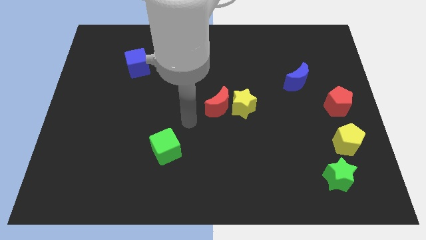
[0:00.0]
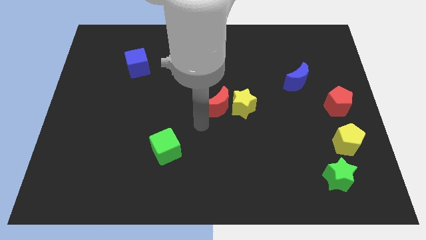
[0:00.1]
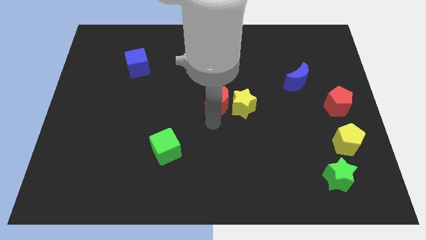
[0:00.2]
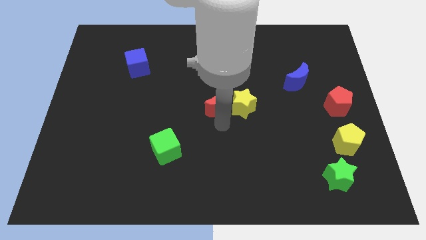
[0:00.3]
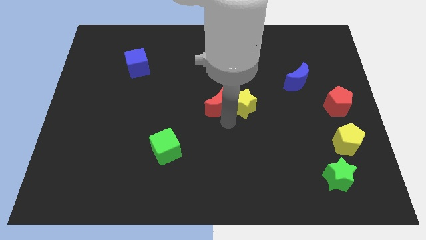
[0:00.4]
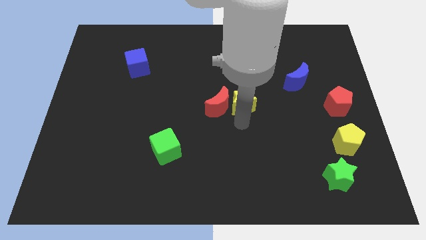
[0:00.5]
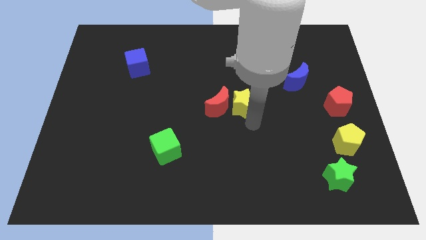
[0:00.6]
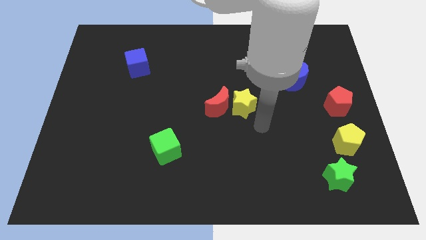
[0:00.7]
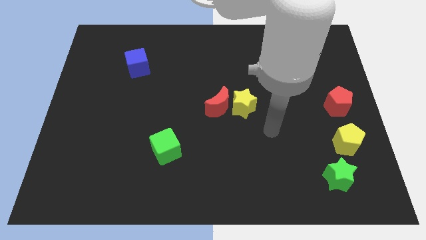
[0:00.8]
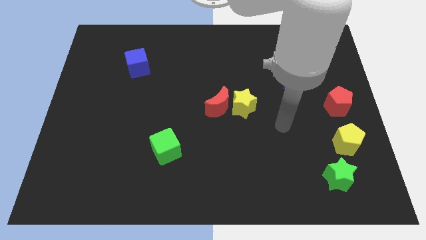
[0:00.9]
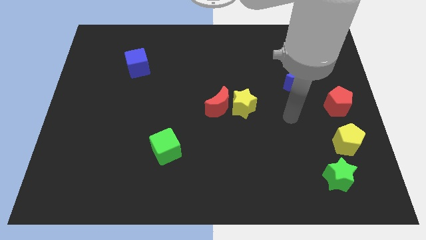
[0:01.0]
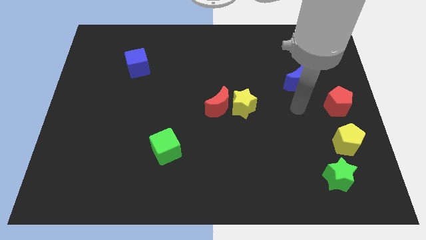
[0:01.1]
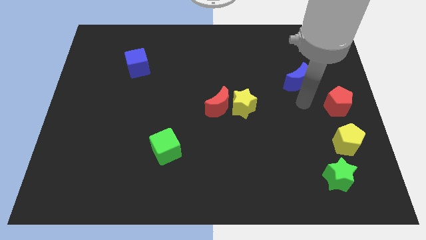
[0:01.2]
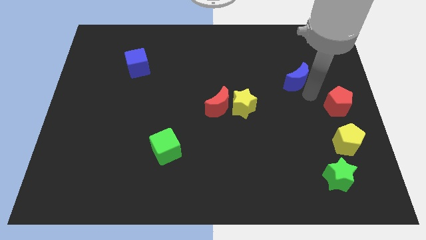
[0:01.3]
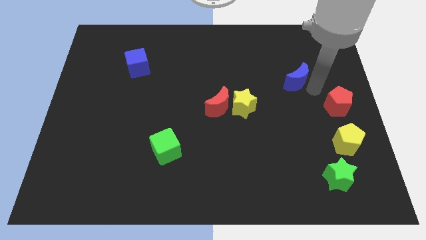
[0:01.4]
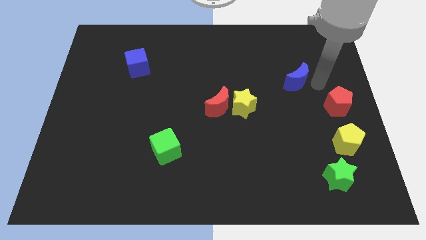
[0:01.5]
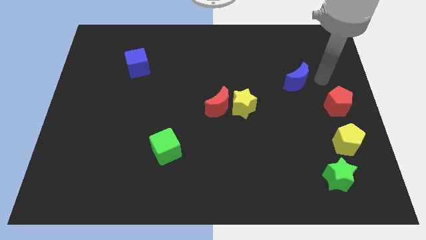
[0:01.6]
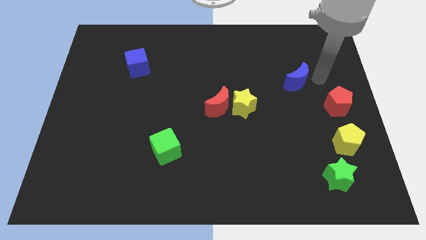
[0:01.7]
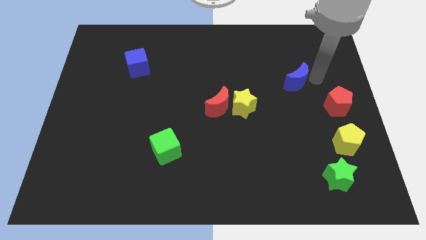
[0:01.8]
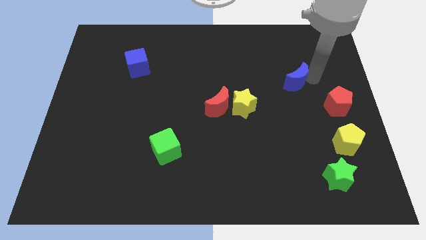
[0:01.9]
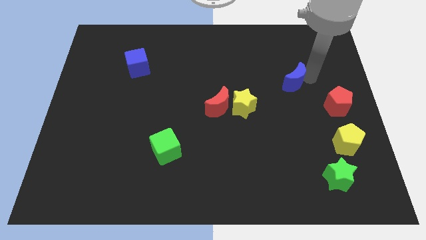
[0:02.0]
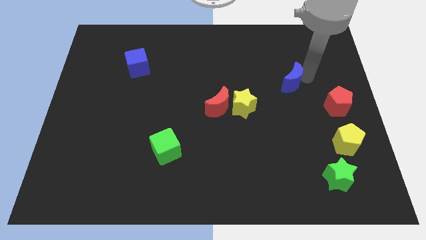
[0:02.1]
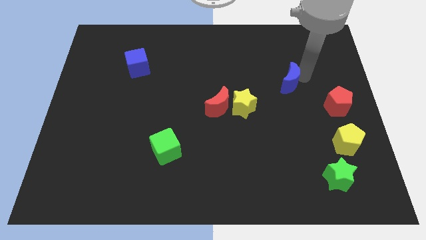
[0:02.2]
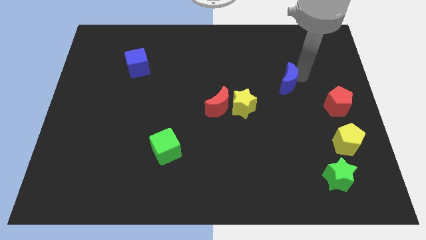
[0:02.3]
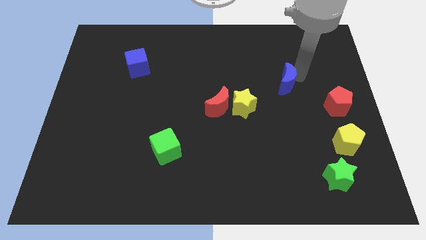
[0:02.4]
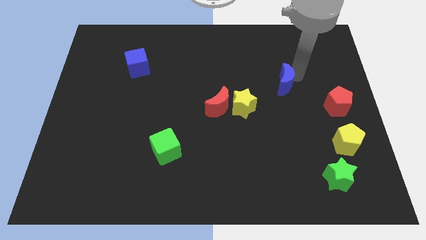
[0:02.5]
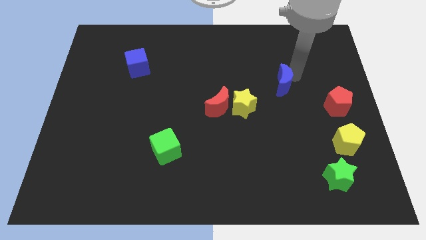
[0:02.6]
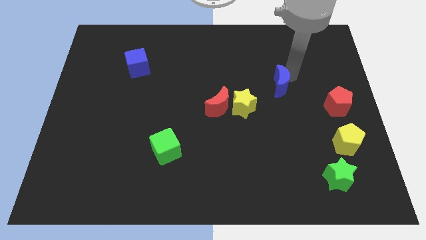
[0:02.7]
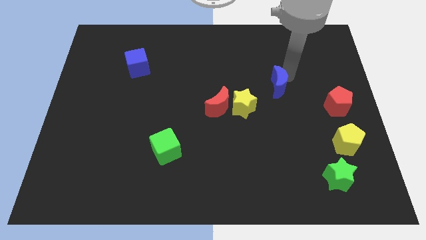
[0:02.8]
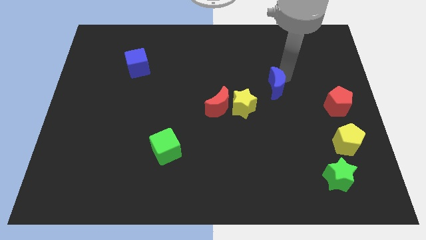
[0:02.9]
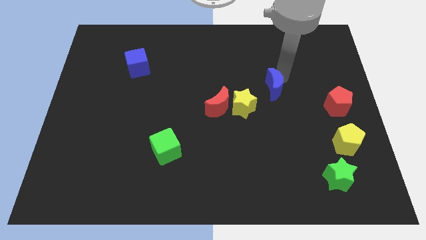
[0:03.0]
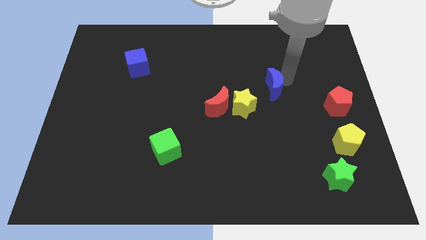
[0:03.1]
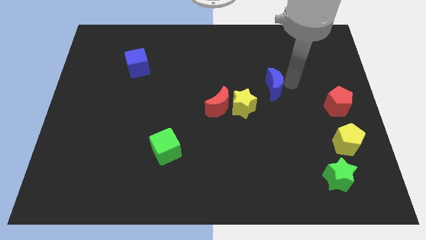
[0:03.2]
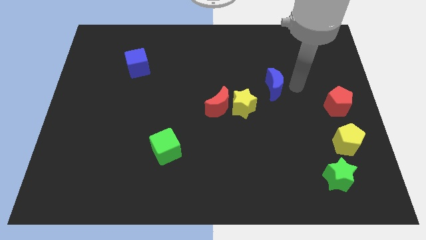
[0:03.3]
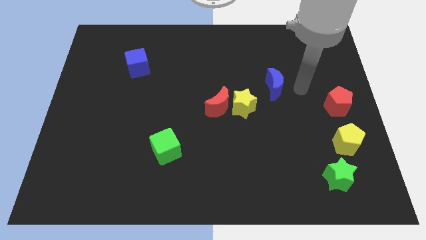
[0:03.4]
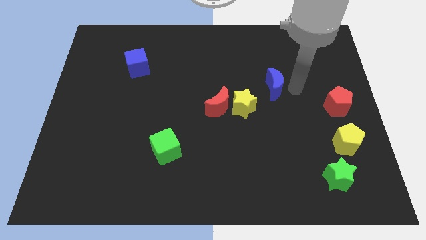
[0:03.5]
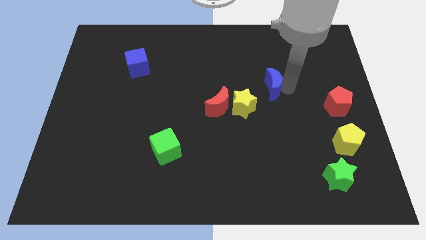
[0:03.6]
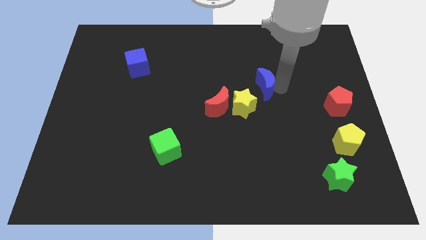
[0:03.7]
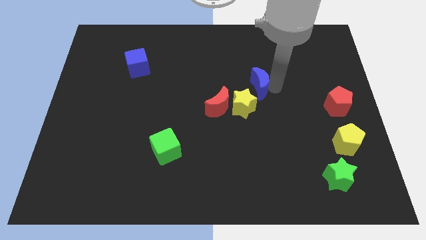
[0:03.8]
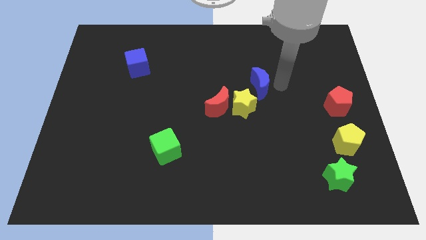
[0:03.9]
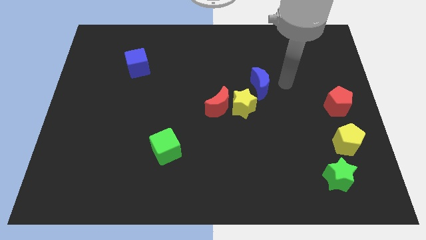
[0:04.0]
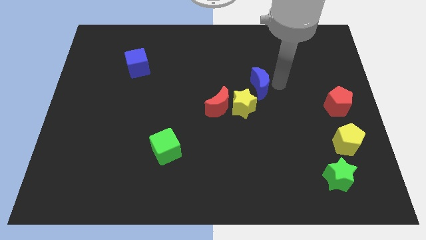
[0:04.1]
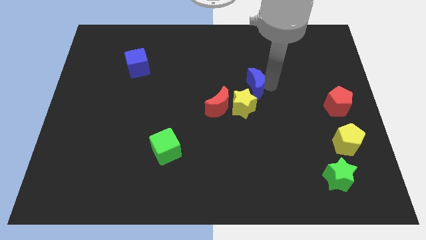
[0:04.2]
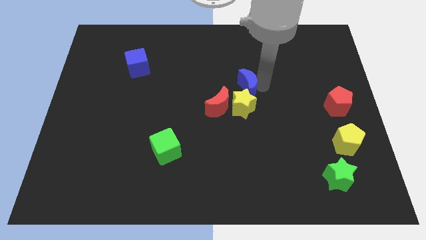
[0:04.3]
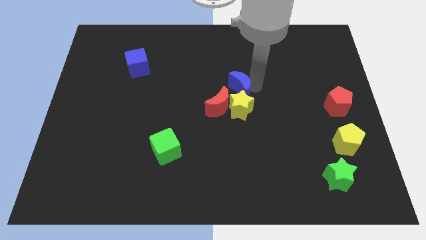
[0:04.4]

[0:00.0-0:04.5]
slide the blue moon diagonally up and to the left of the yellow star

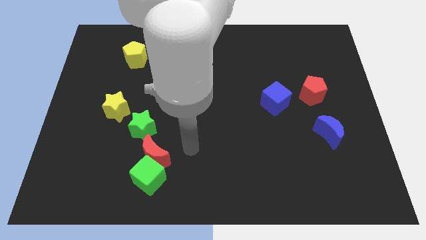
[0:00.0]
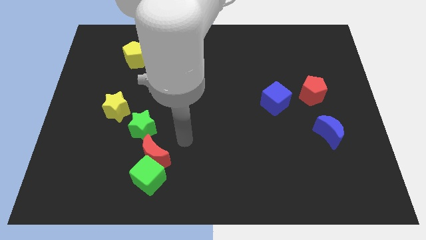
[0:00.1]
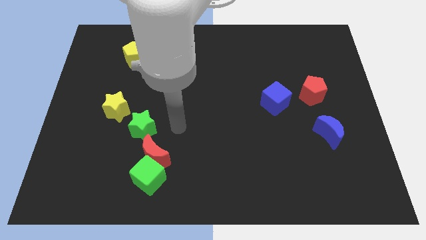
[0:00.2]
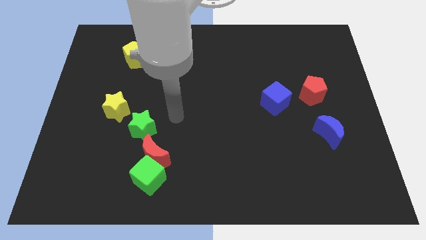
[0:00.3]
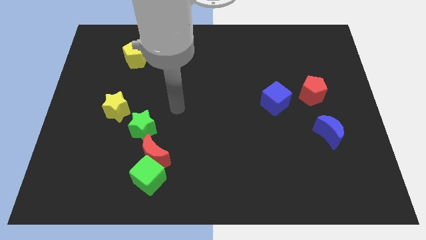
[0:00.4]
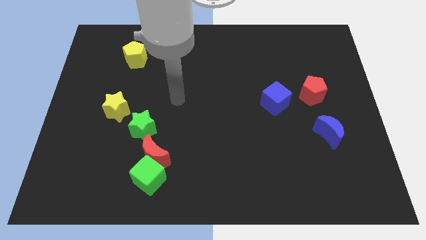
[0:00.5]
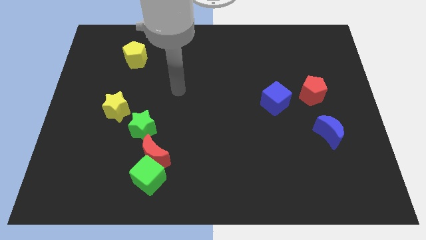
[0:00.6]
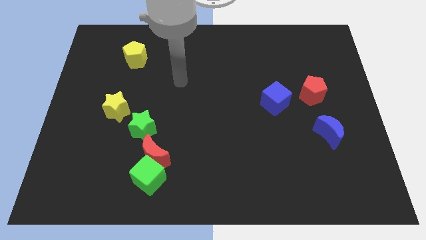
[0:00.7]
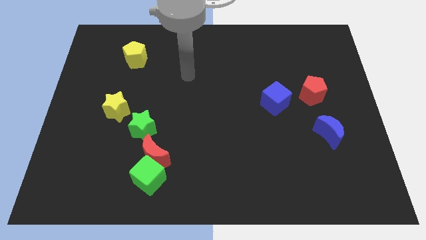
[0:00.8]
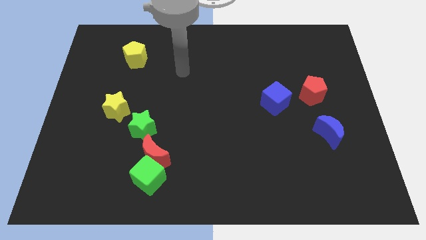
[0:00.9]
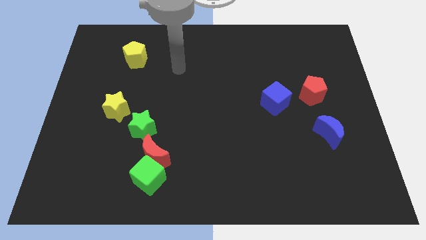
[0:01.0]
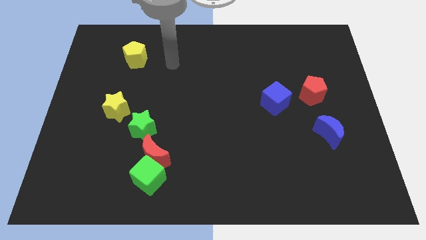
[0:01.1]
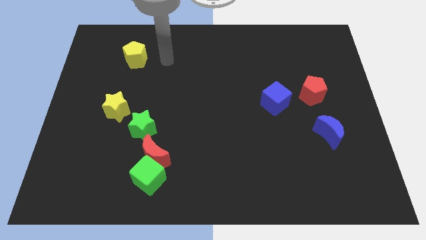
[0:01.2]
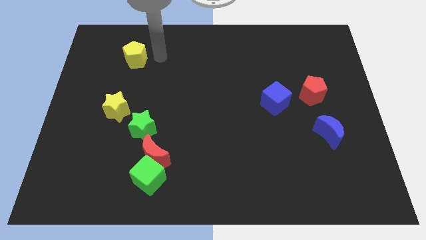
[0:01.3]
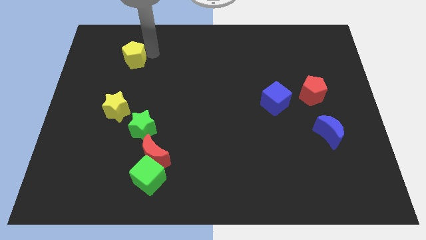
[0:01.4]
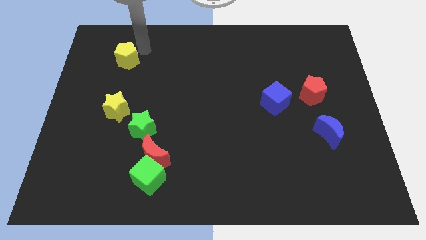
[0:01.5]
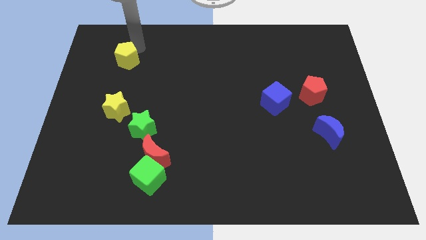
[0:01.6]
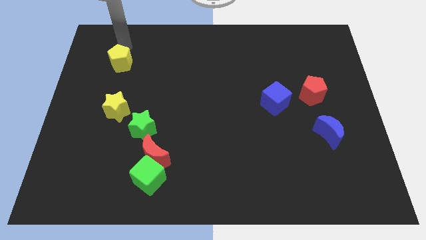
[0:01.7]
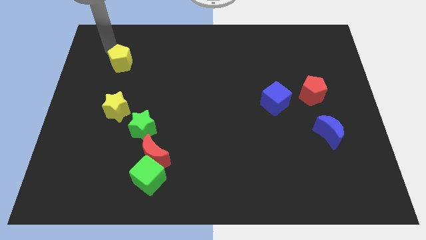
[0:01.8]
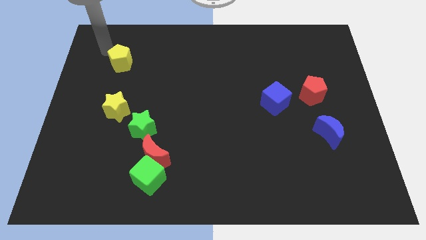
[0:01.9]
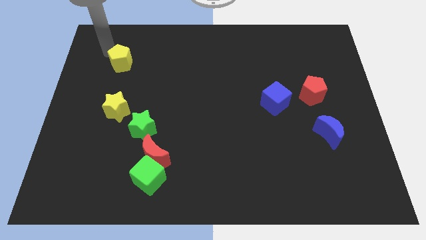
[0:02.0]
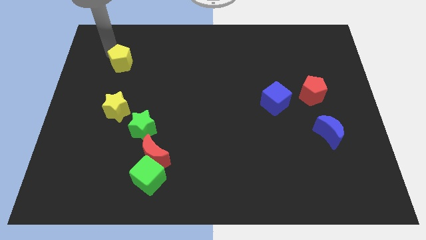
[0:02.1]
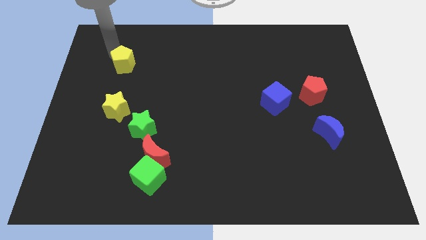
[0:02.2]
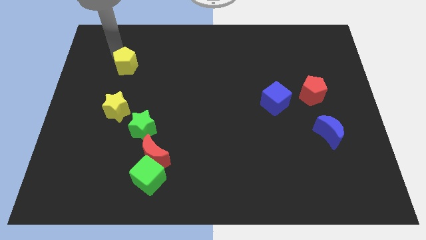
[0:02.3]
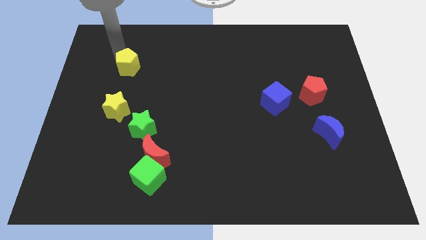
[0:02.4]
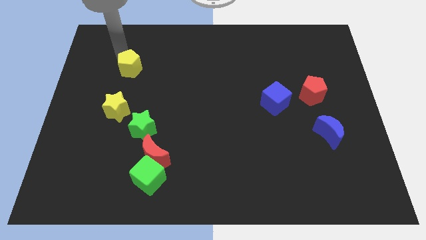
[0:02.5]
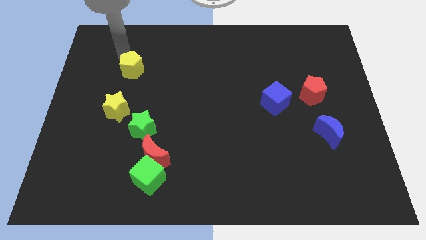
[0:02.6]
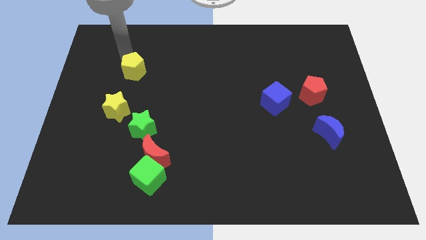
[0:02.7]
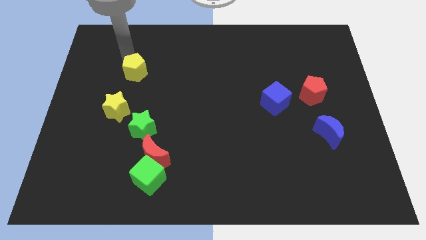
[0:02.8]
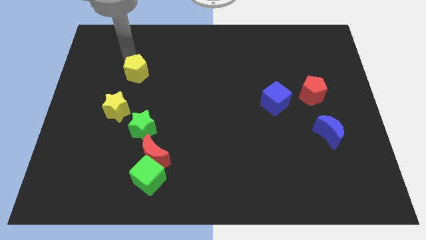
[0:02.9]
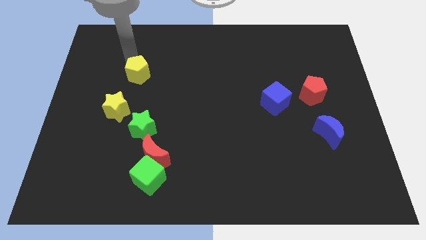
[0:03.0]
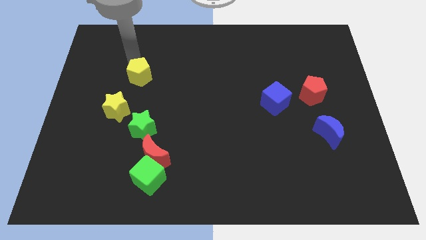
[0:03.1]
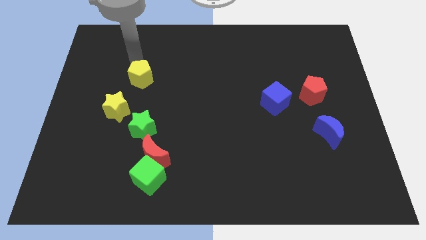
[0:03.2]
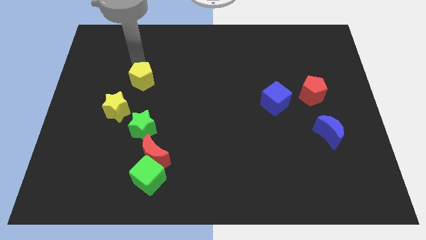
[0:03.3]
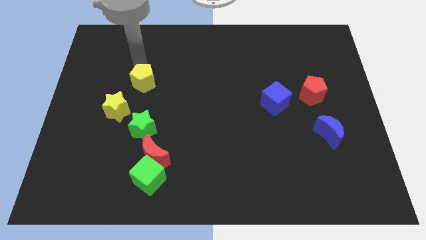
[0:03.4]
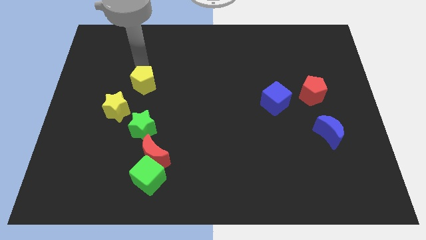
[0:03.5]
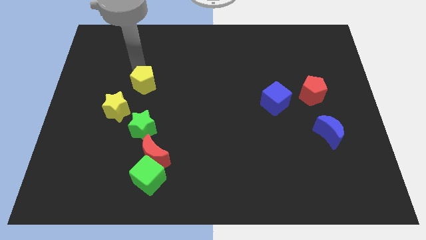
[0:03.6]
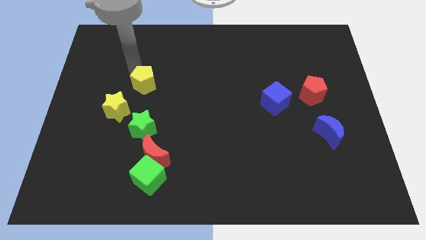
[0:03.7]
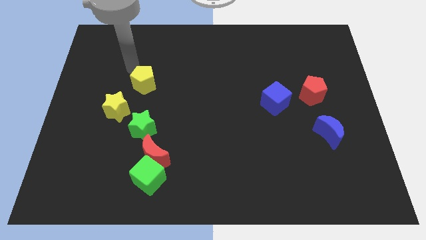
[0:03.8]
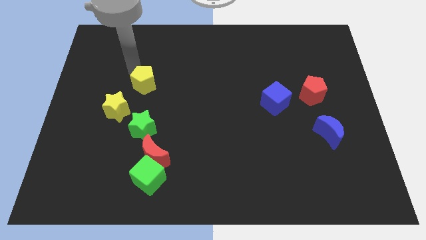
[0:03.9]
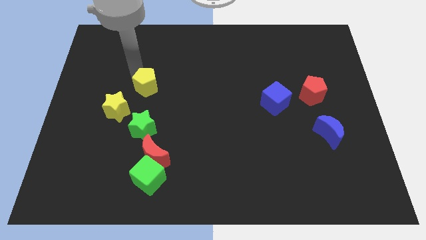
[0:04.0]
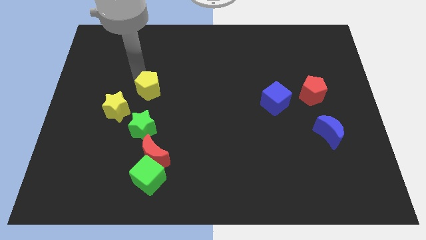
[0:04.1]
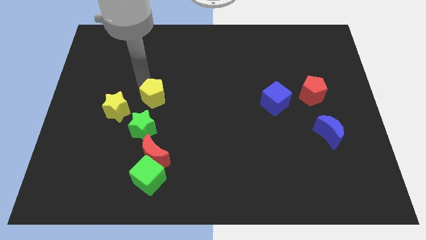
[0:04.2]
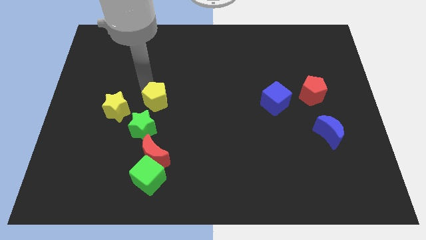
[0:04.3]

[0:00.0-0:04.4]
put the yellow pentagon to the top right side of the green star
